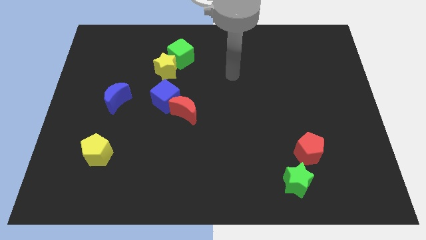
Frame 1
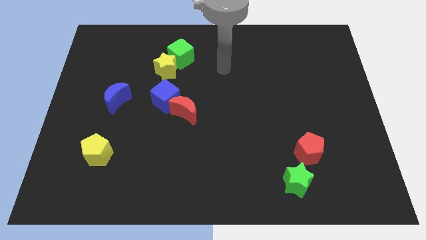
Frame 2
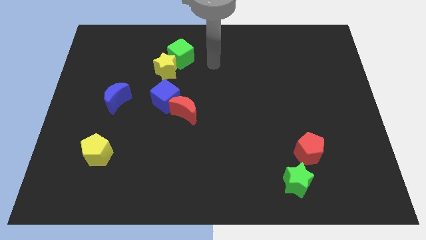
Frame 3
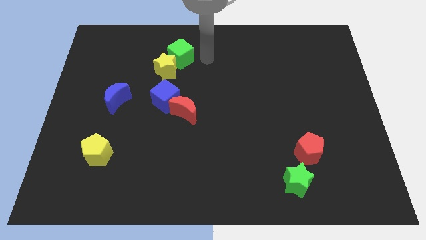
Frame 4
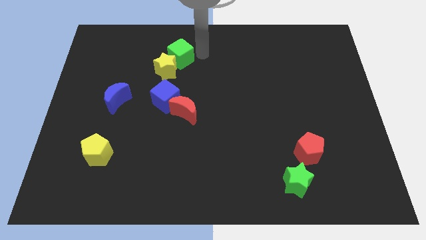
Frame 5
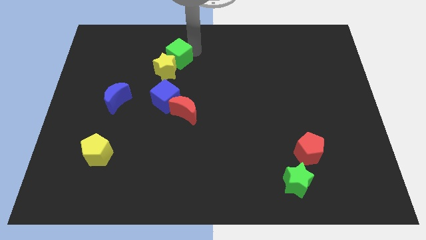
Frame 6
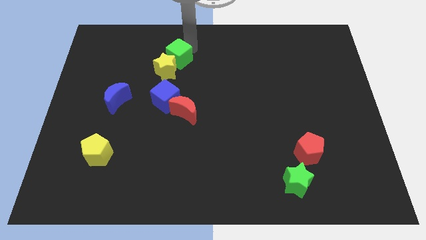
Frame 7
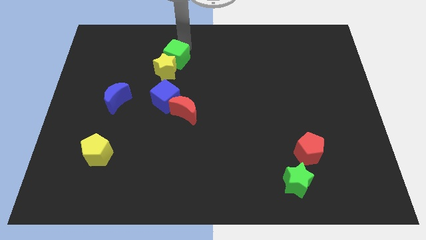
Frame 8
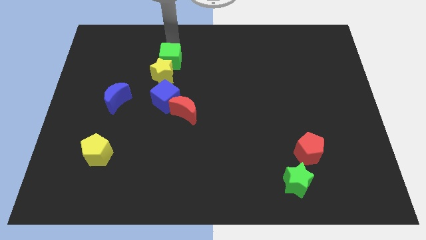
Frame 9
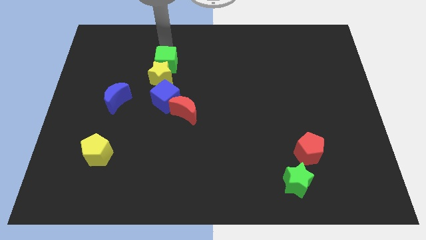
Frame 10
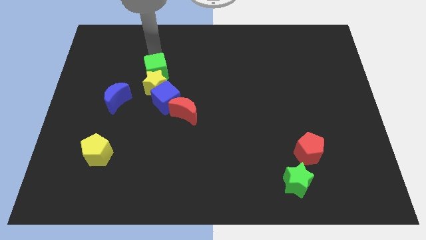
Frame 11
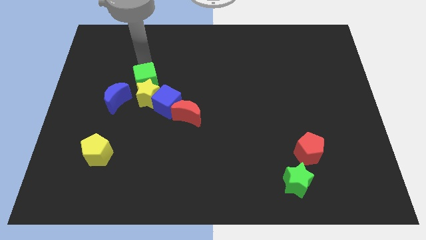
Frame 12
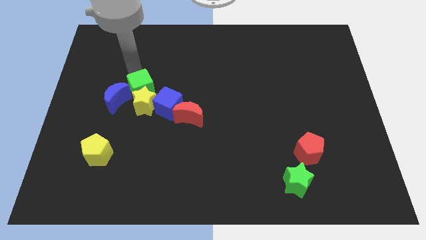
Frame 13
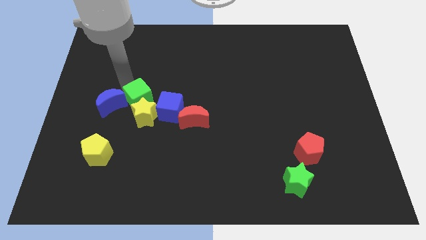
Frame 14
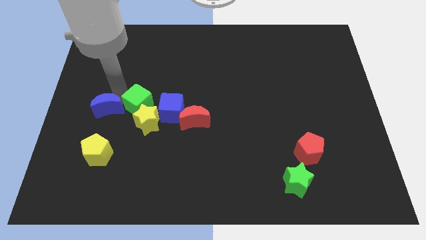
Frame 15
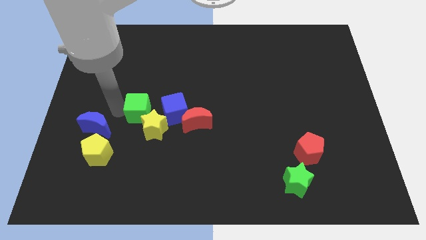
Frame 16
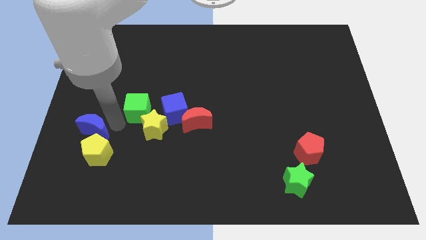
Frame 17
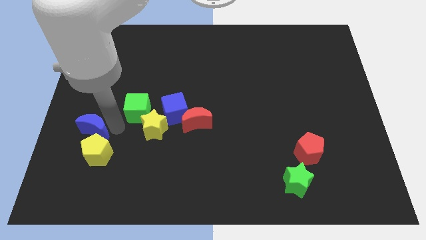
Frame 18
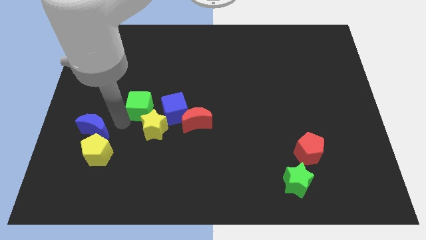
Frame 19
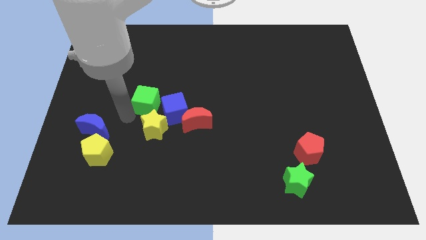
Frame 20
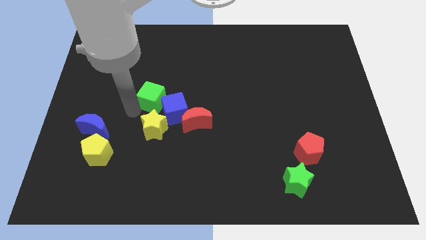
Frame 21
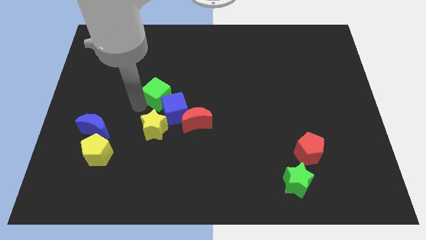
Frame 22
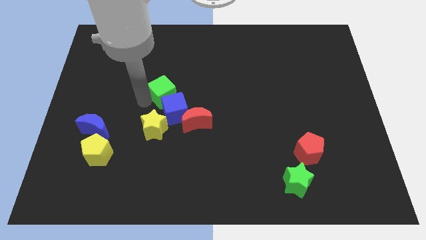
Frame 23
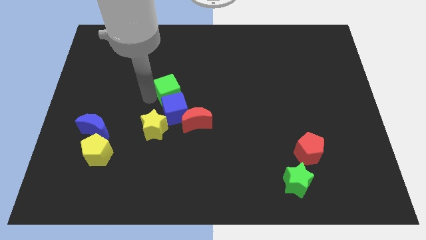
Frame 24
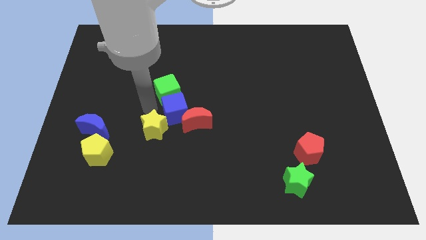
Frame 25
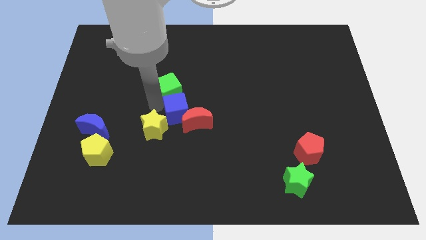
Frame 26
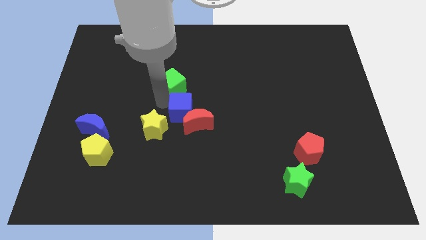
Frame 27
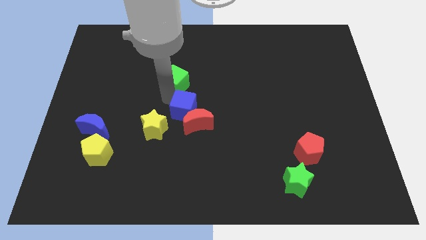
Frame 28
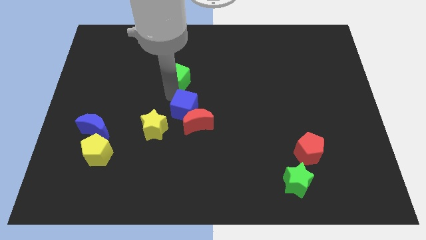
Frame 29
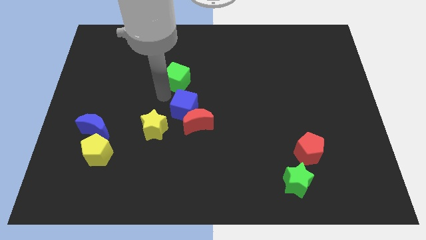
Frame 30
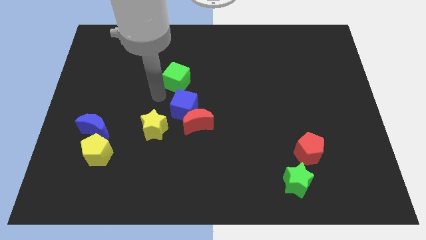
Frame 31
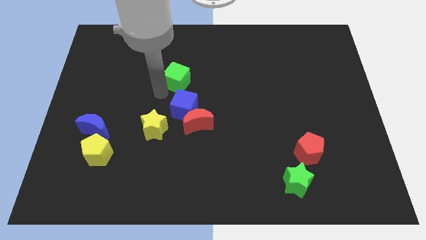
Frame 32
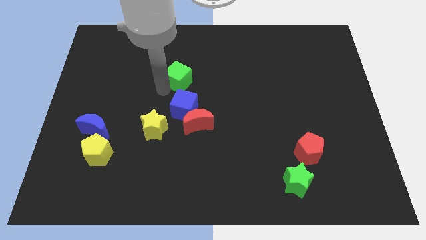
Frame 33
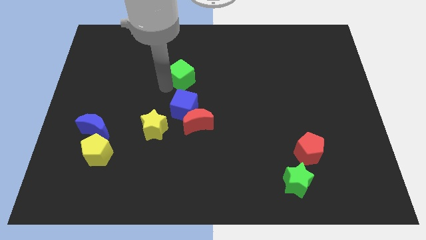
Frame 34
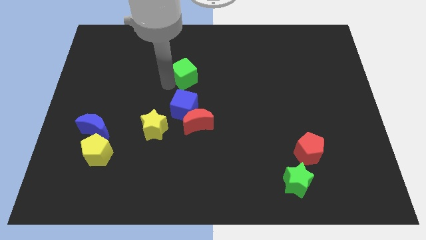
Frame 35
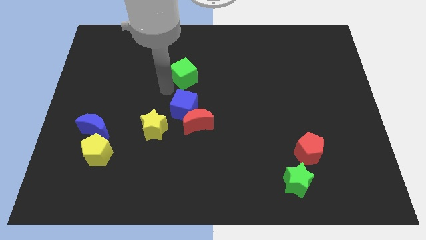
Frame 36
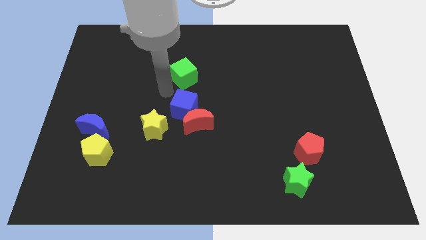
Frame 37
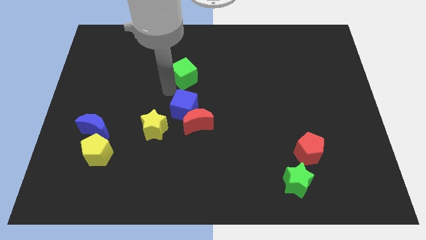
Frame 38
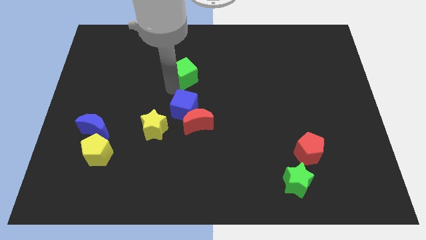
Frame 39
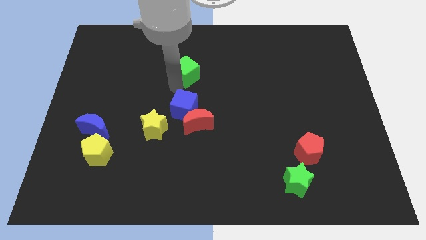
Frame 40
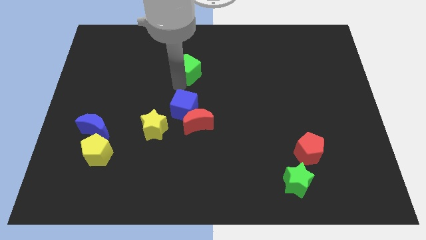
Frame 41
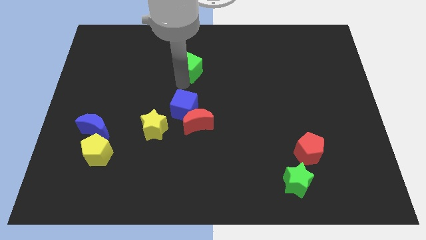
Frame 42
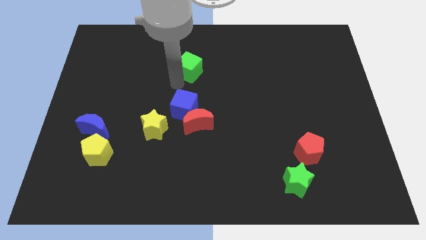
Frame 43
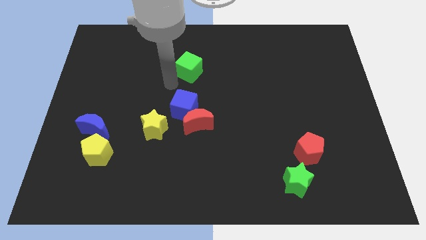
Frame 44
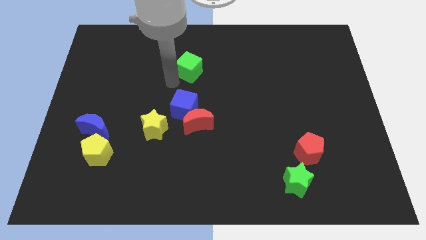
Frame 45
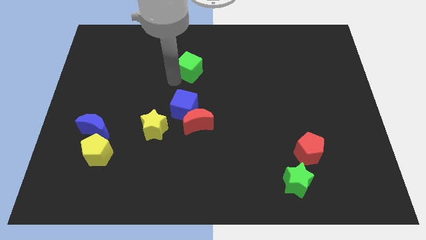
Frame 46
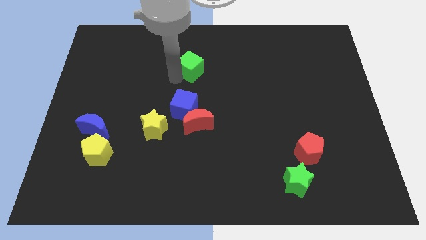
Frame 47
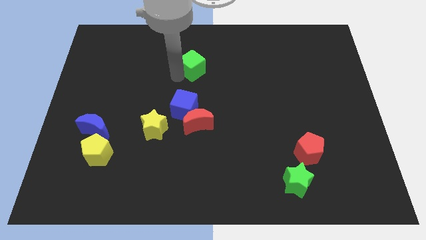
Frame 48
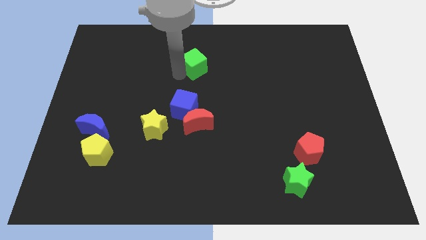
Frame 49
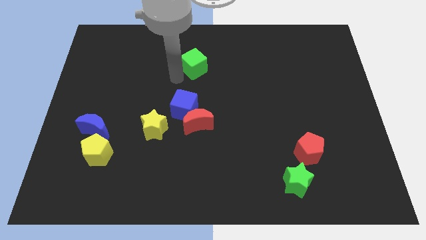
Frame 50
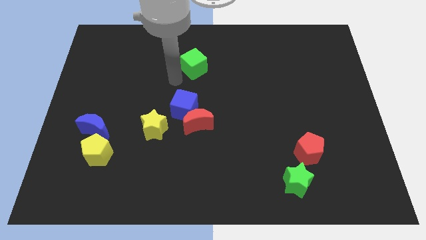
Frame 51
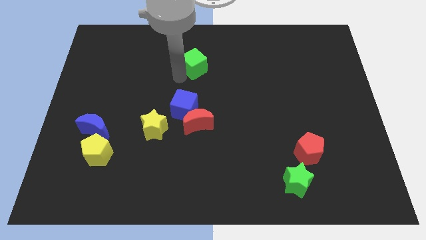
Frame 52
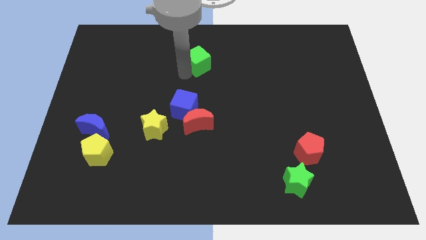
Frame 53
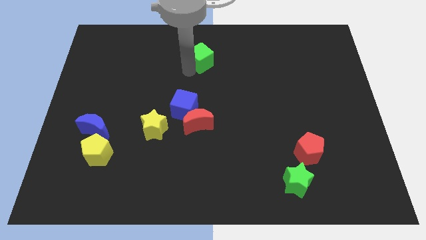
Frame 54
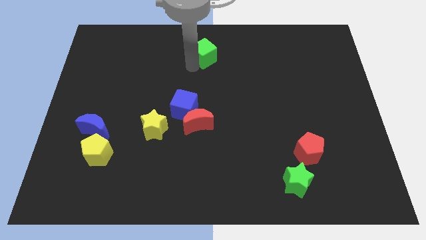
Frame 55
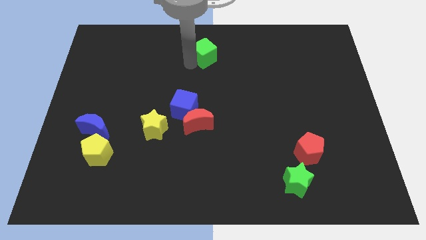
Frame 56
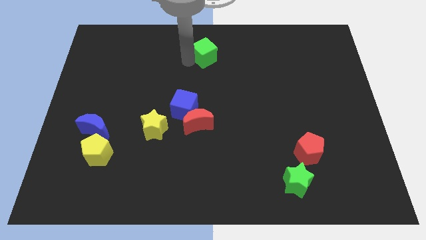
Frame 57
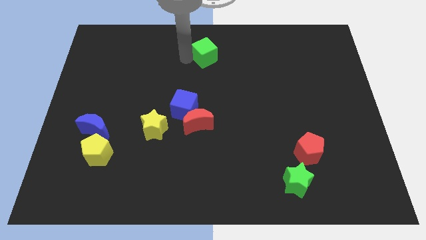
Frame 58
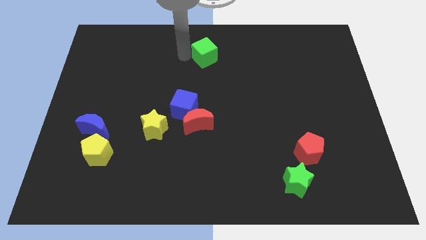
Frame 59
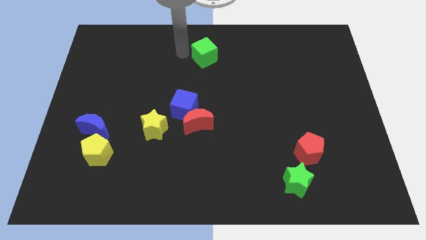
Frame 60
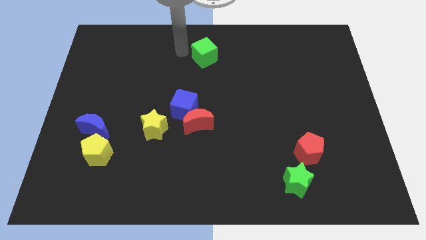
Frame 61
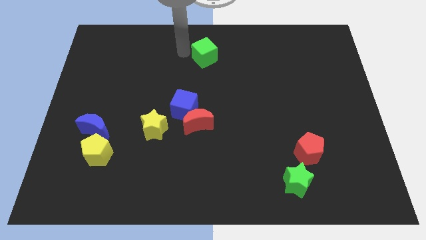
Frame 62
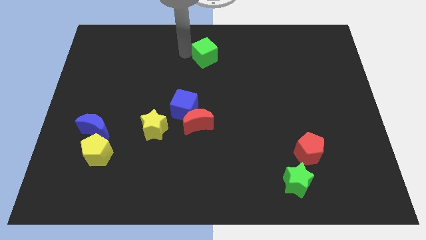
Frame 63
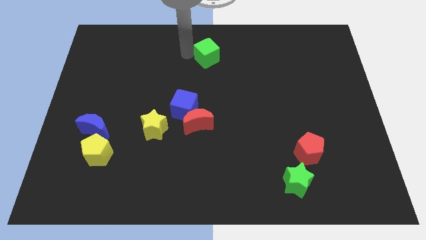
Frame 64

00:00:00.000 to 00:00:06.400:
move the green cube to the right slightly

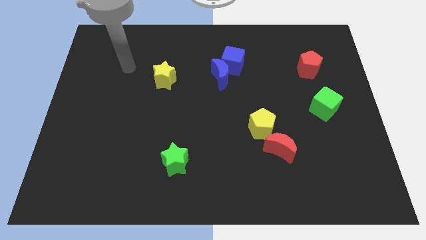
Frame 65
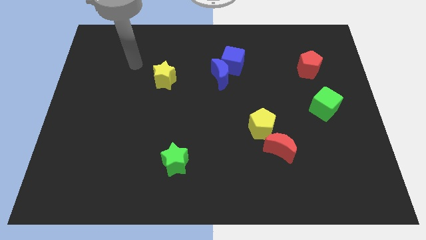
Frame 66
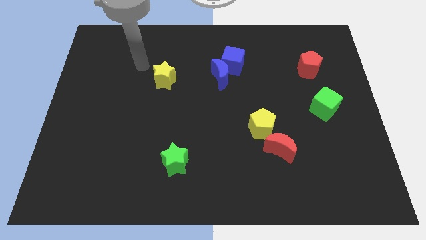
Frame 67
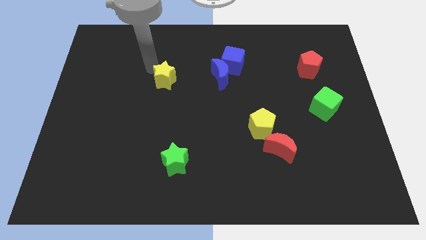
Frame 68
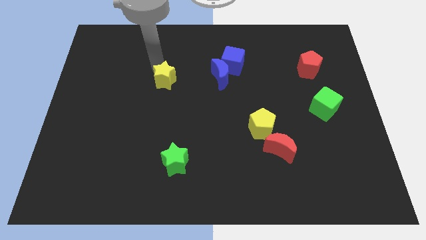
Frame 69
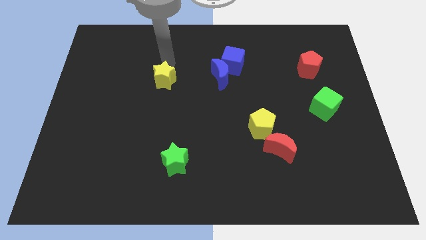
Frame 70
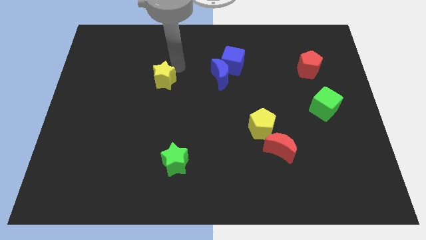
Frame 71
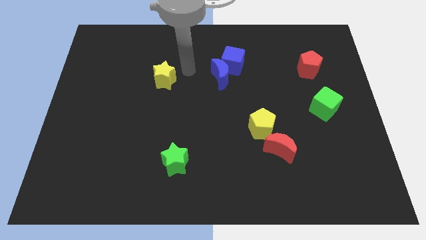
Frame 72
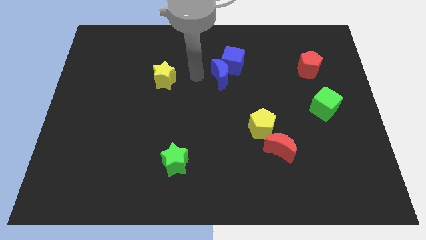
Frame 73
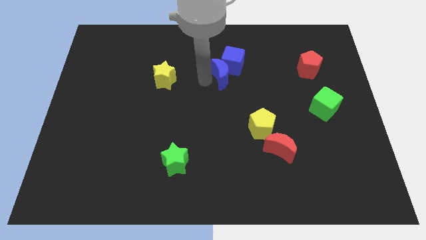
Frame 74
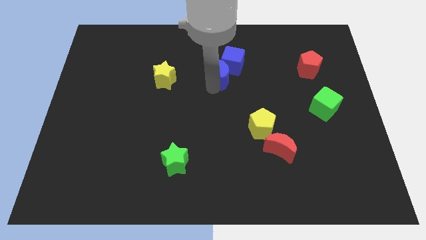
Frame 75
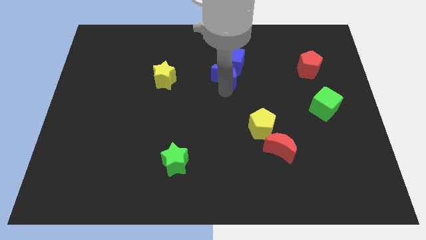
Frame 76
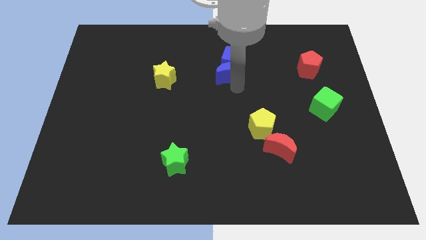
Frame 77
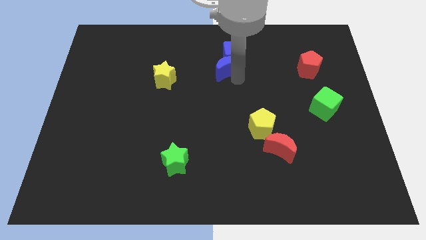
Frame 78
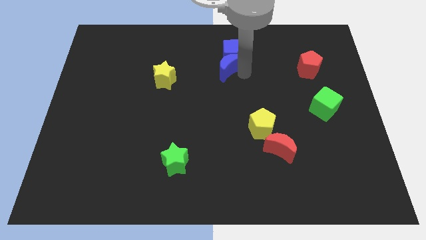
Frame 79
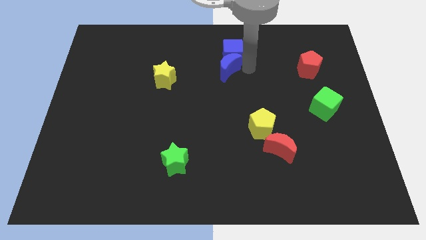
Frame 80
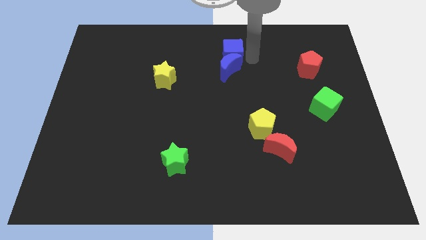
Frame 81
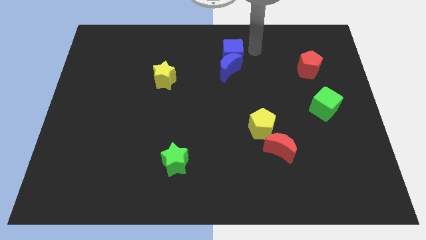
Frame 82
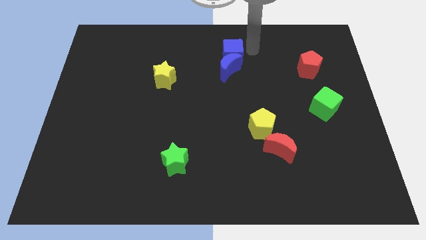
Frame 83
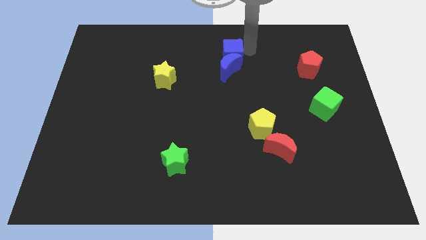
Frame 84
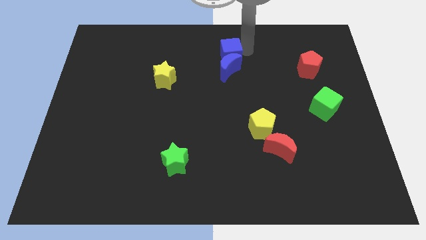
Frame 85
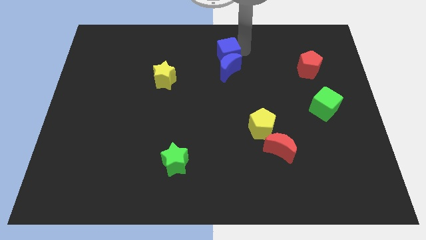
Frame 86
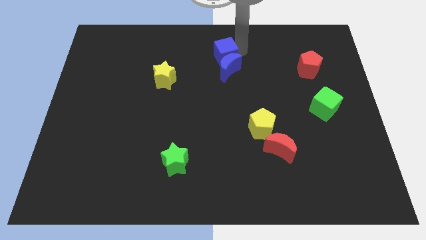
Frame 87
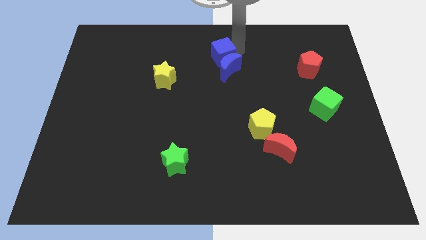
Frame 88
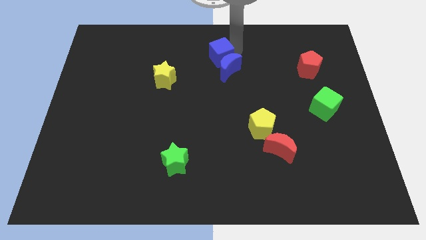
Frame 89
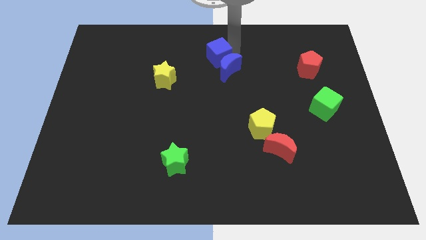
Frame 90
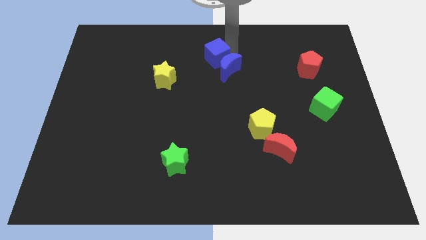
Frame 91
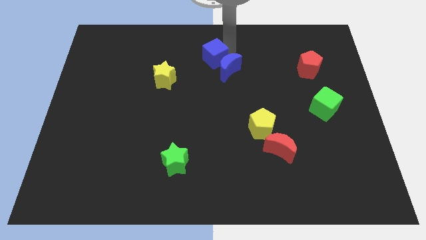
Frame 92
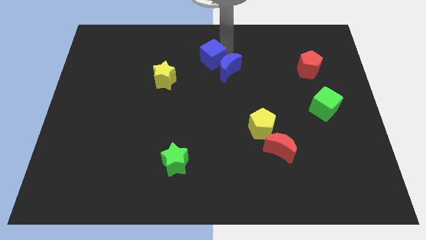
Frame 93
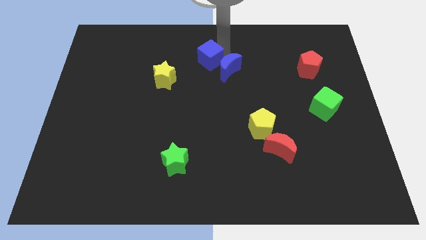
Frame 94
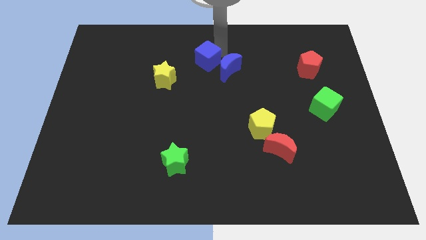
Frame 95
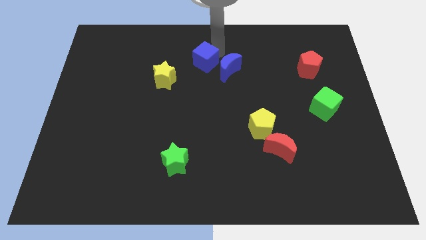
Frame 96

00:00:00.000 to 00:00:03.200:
slide the blue cube a little bit to the left
